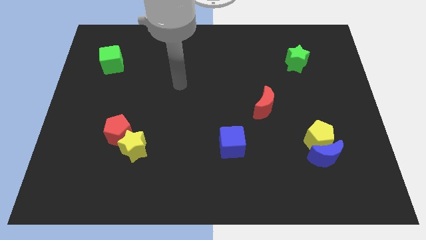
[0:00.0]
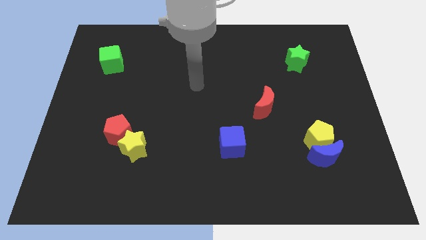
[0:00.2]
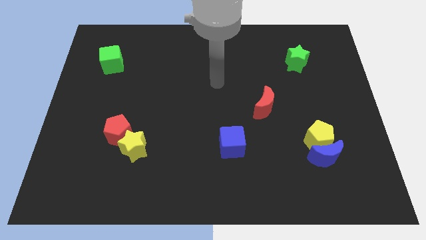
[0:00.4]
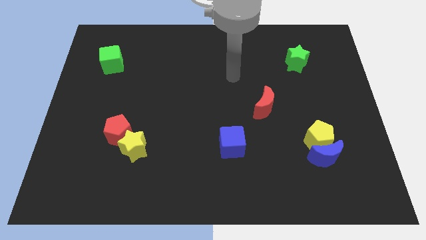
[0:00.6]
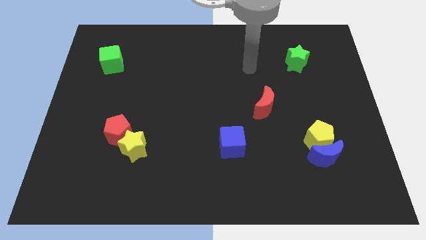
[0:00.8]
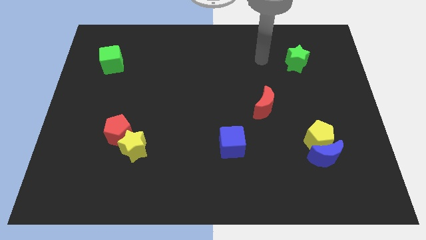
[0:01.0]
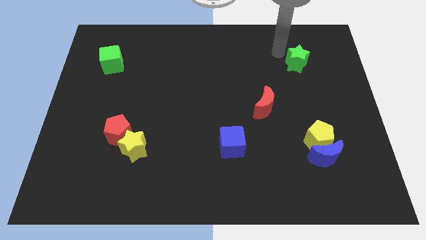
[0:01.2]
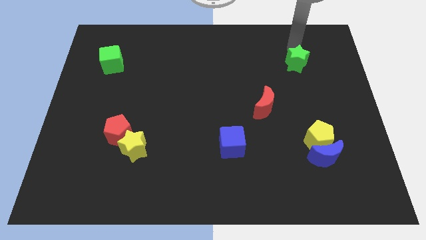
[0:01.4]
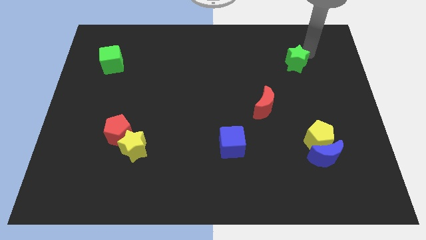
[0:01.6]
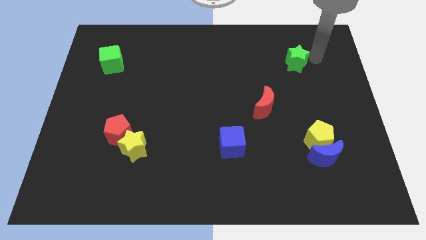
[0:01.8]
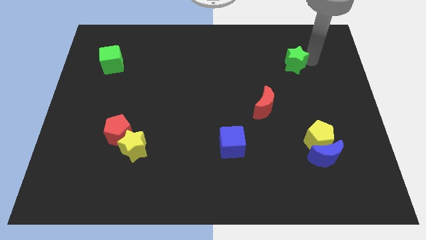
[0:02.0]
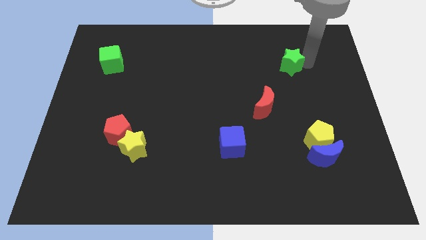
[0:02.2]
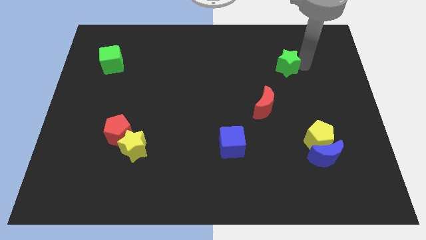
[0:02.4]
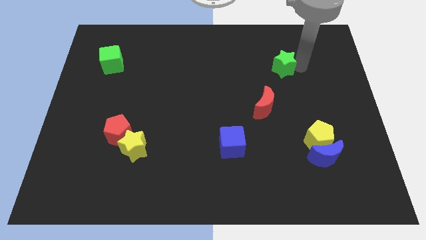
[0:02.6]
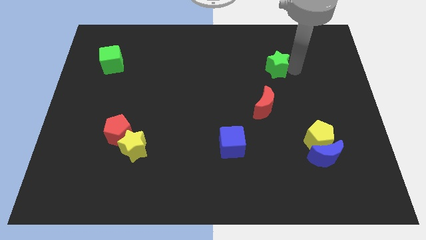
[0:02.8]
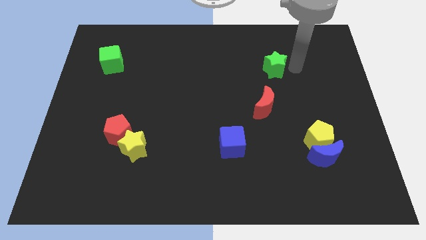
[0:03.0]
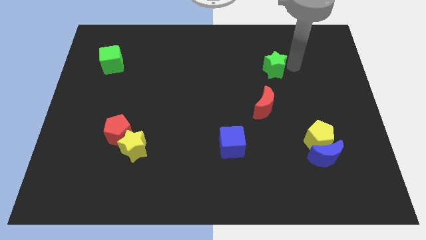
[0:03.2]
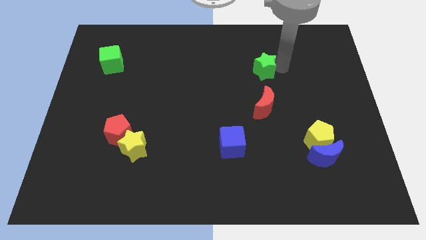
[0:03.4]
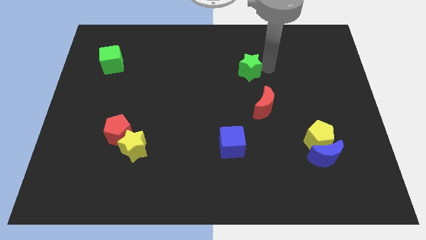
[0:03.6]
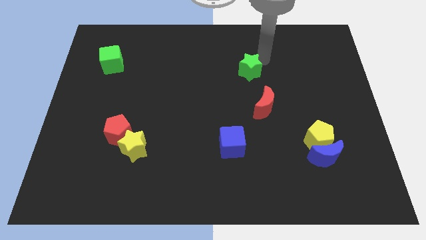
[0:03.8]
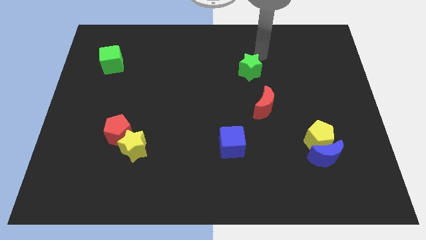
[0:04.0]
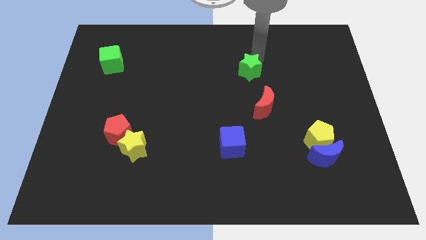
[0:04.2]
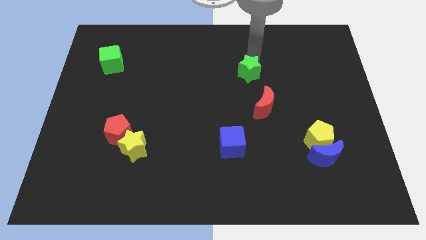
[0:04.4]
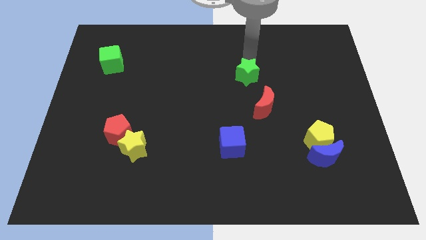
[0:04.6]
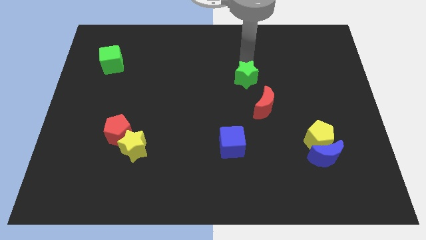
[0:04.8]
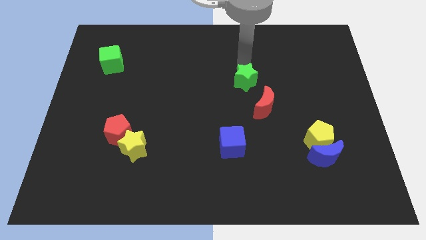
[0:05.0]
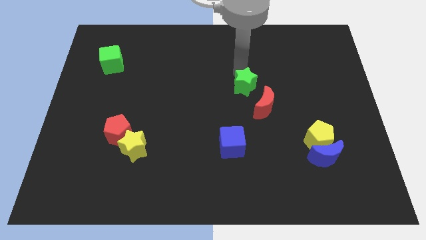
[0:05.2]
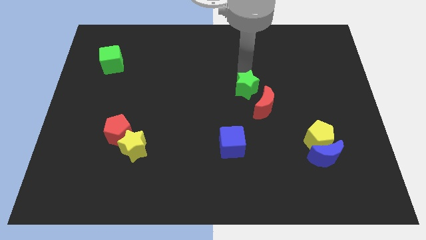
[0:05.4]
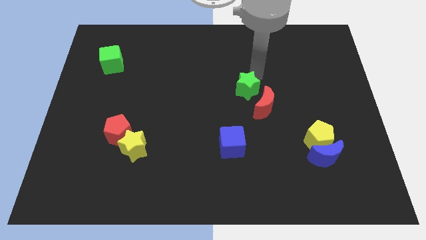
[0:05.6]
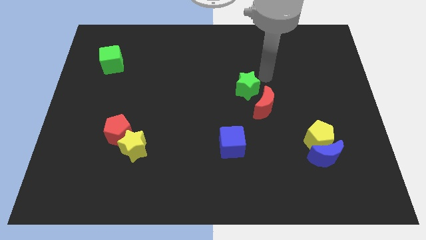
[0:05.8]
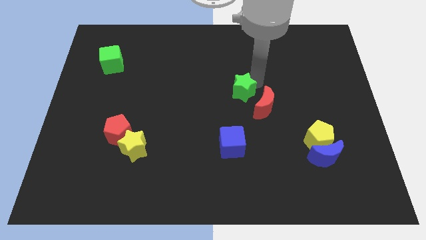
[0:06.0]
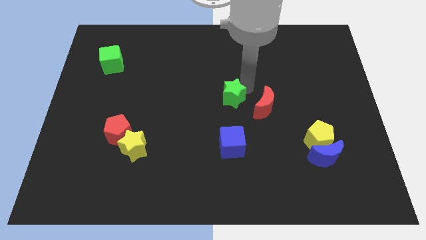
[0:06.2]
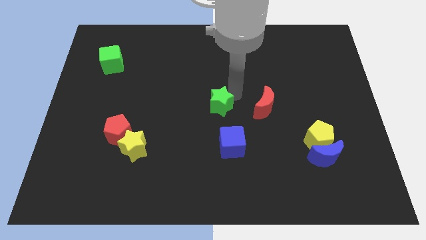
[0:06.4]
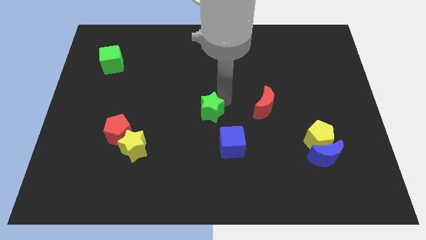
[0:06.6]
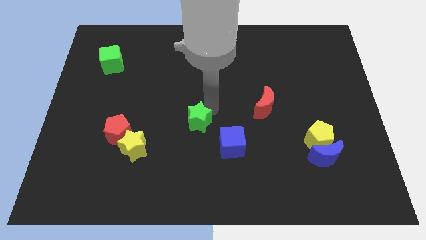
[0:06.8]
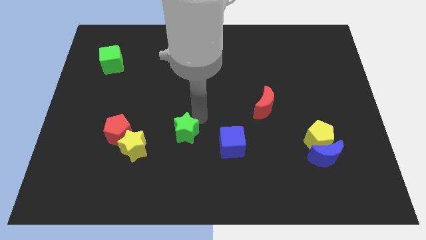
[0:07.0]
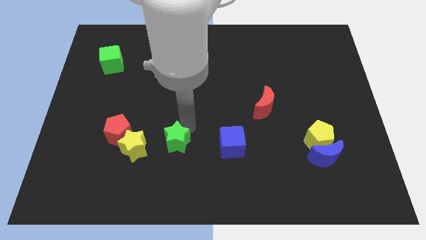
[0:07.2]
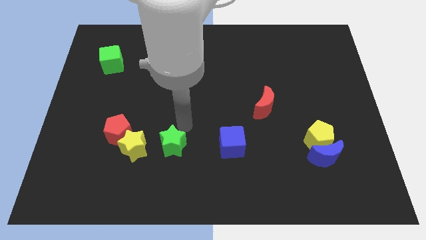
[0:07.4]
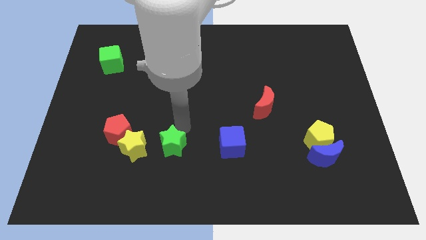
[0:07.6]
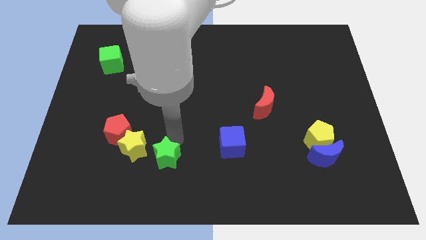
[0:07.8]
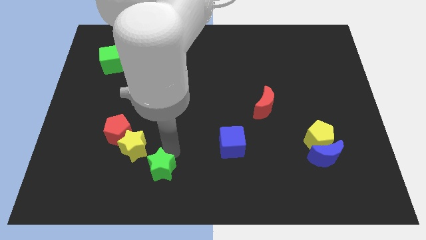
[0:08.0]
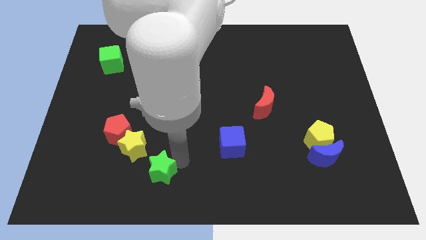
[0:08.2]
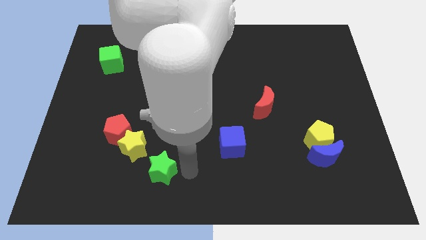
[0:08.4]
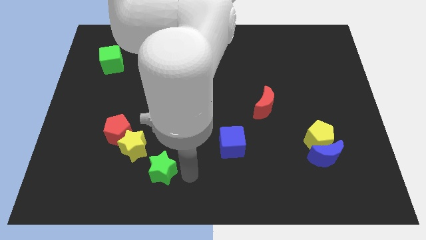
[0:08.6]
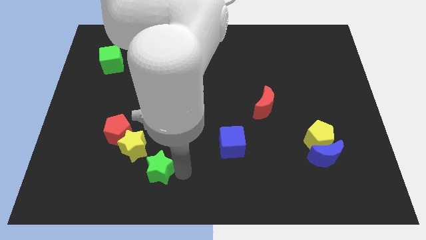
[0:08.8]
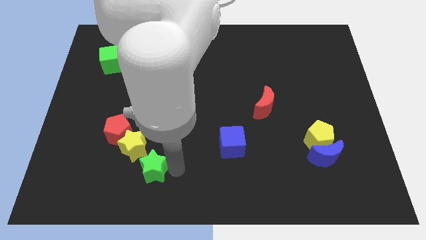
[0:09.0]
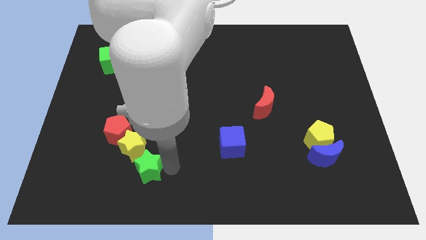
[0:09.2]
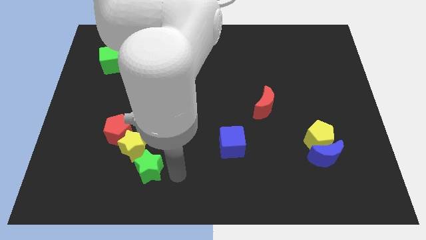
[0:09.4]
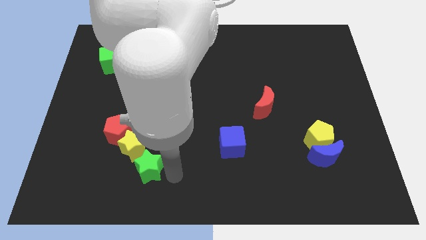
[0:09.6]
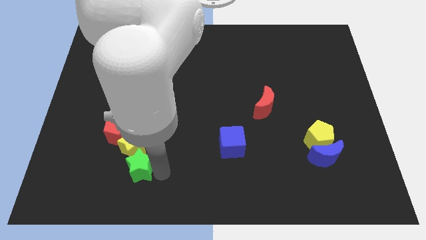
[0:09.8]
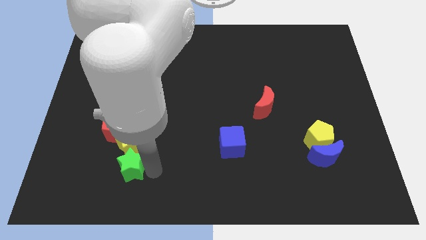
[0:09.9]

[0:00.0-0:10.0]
move the green star diagonally down and to the left of the yellow star
